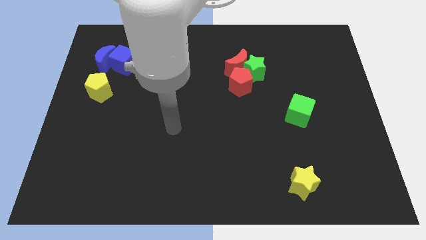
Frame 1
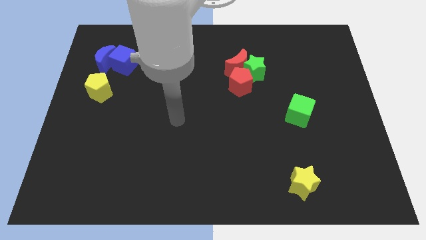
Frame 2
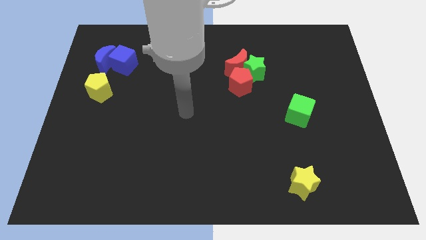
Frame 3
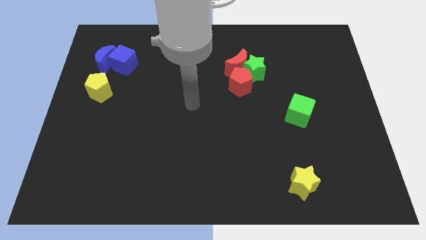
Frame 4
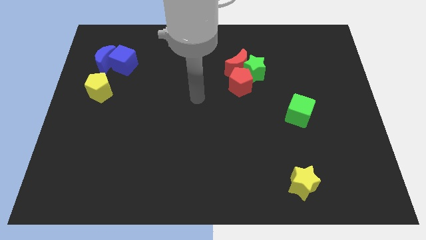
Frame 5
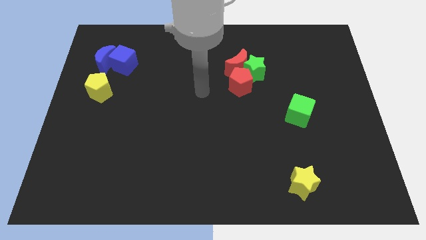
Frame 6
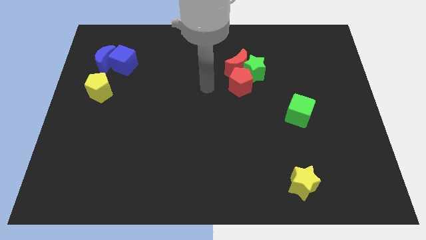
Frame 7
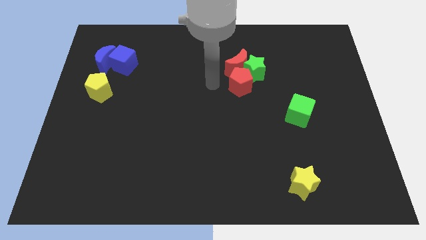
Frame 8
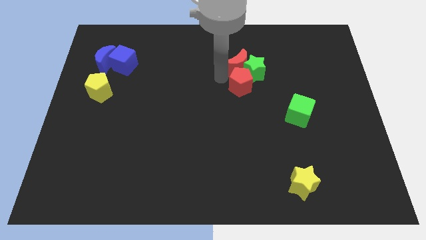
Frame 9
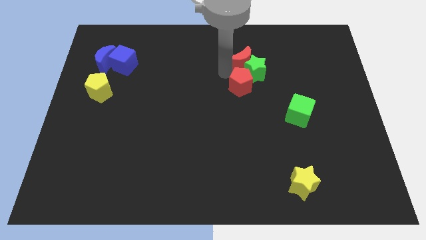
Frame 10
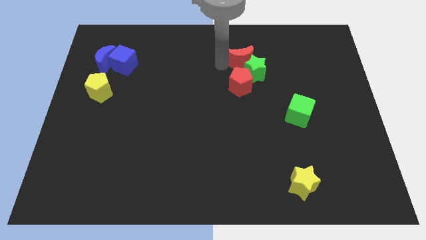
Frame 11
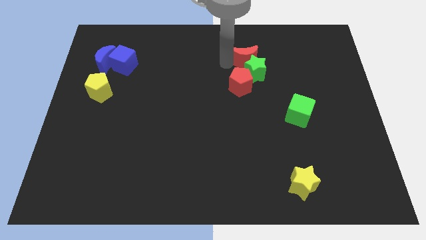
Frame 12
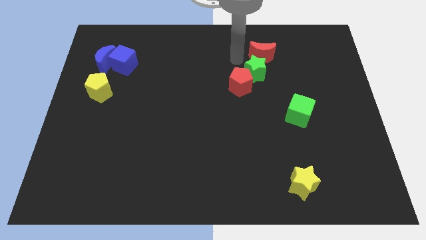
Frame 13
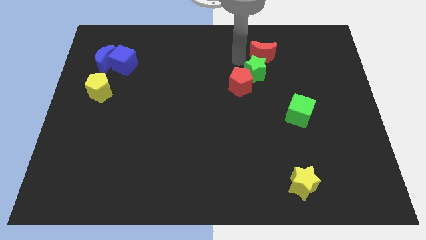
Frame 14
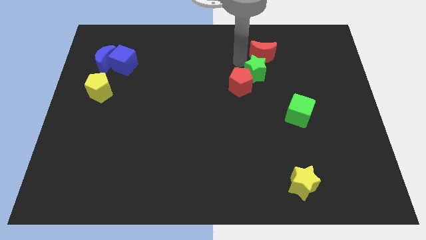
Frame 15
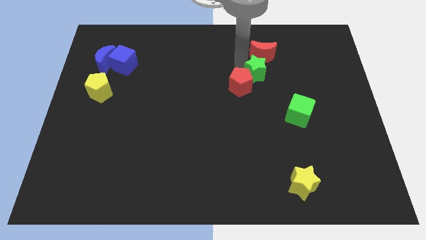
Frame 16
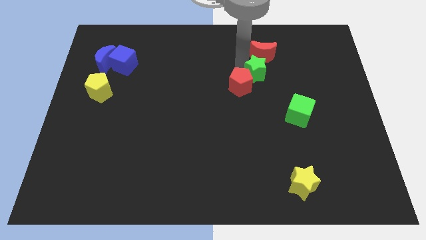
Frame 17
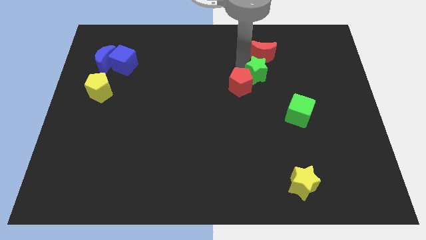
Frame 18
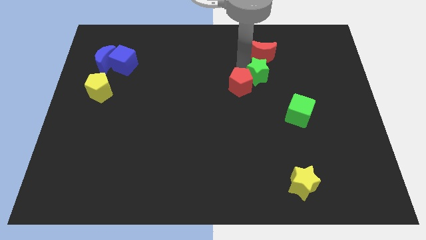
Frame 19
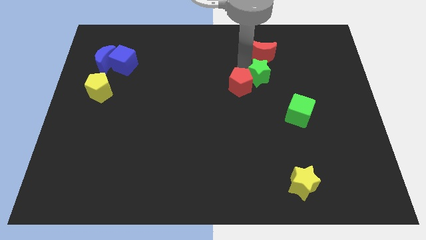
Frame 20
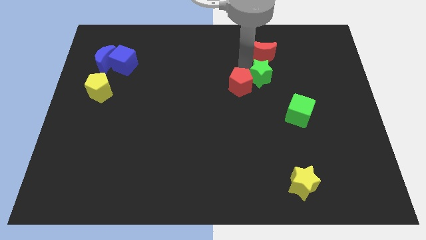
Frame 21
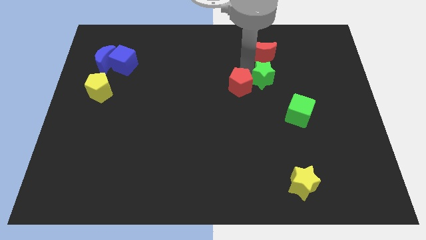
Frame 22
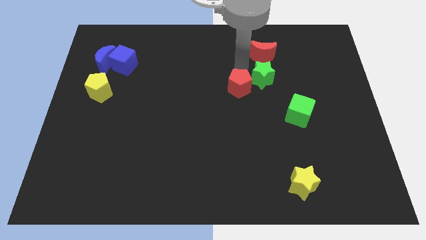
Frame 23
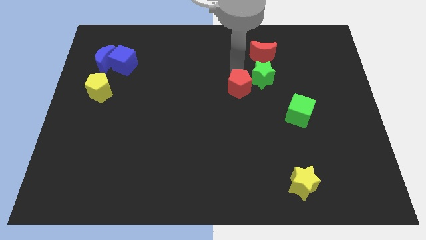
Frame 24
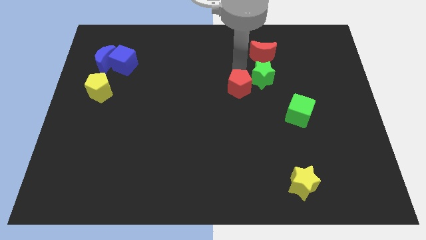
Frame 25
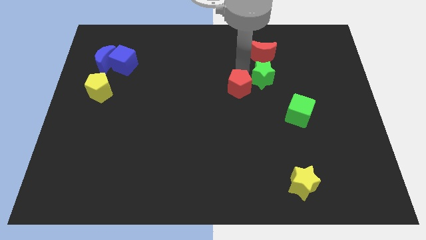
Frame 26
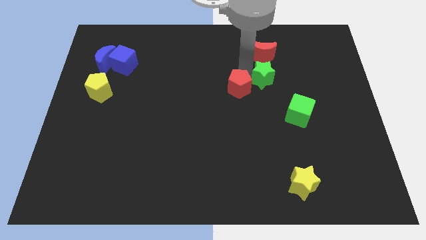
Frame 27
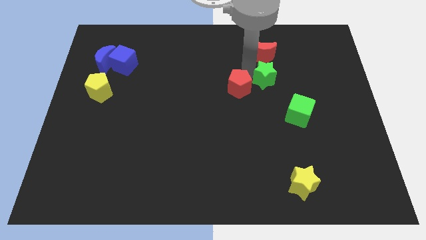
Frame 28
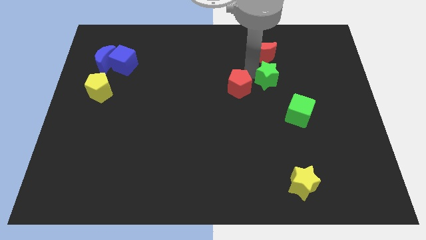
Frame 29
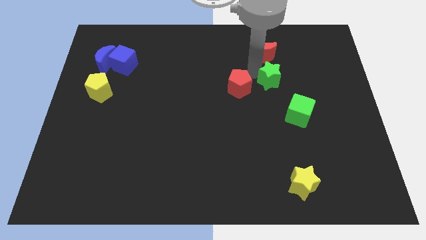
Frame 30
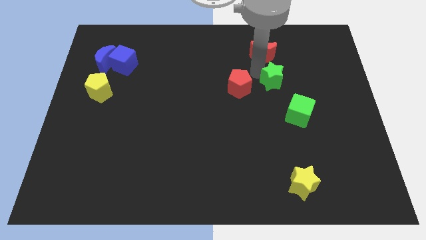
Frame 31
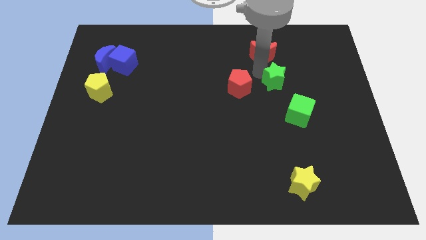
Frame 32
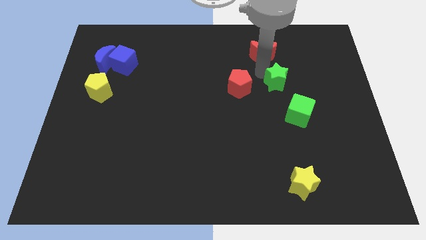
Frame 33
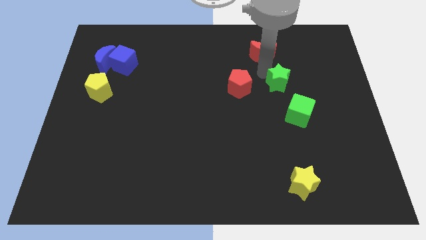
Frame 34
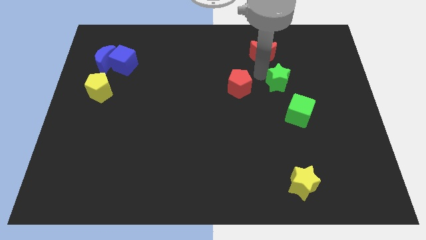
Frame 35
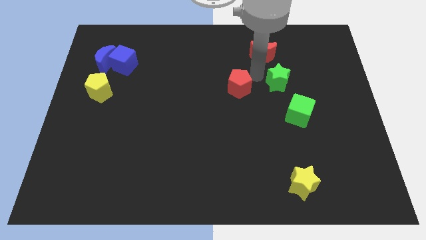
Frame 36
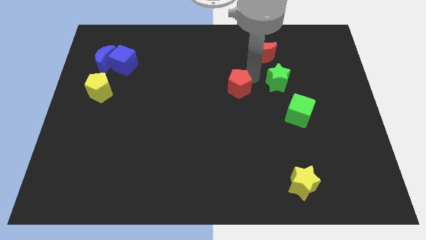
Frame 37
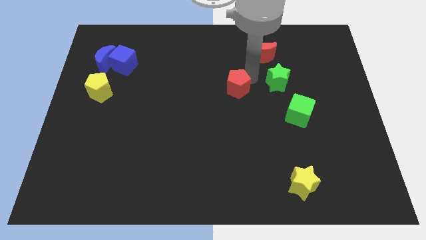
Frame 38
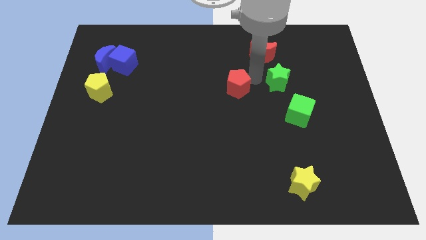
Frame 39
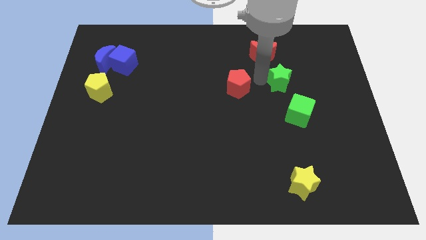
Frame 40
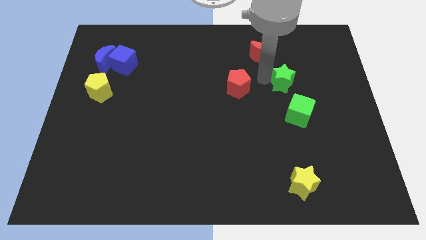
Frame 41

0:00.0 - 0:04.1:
slide the green star downwards and to the right a little

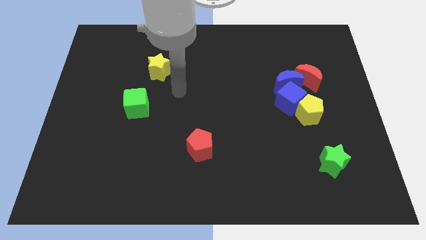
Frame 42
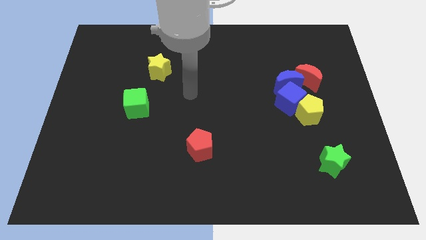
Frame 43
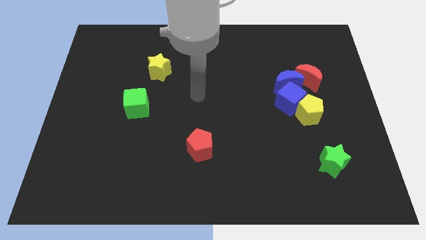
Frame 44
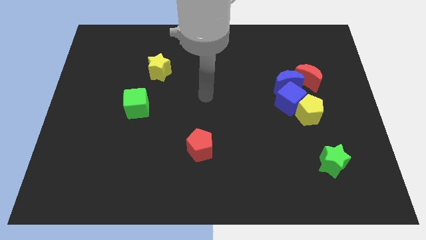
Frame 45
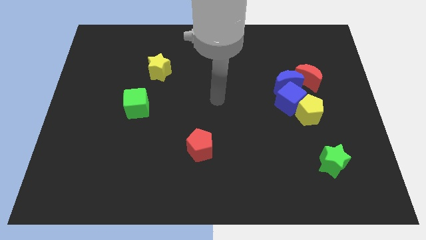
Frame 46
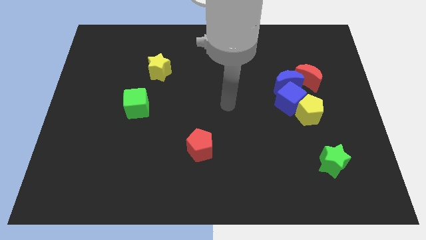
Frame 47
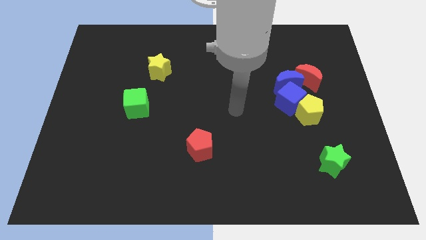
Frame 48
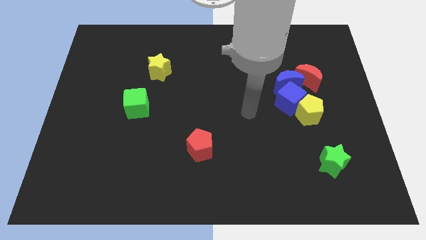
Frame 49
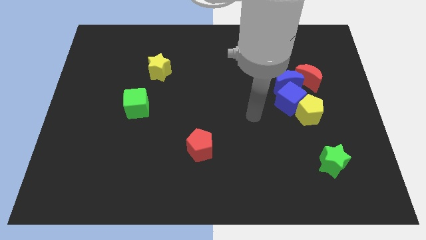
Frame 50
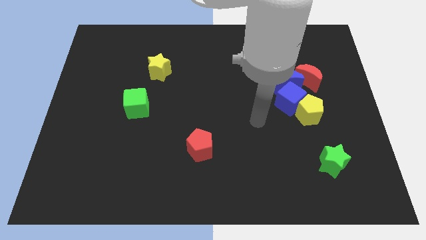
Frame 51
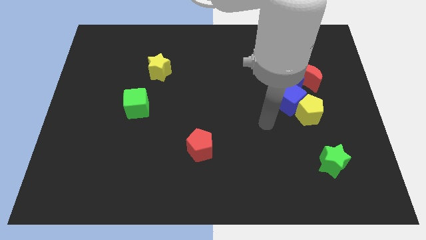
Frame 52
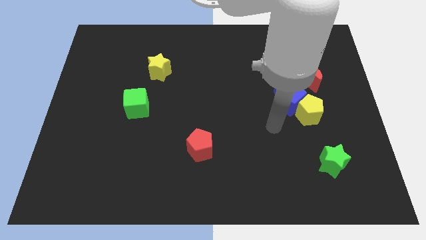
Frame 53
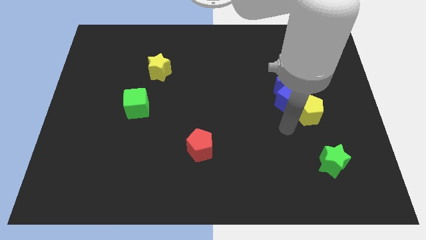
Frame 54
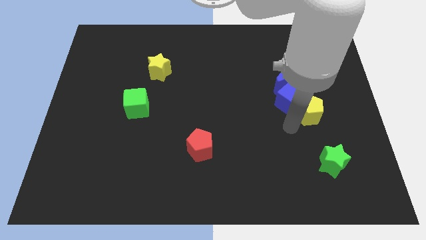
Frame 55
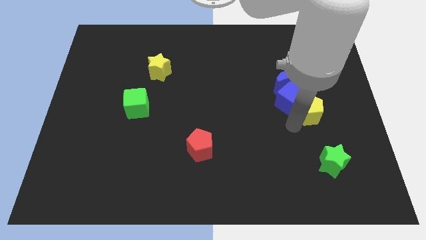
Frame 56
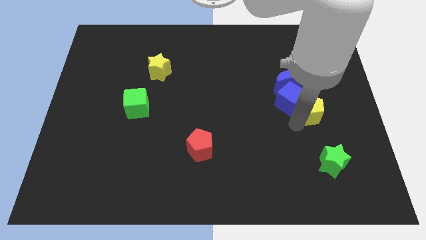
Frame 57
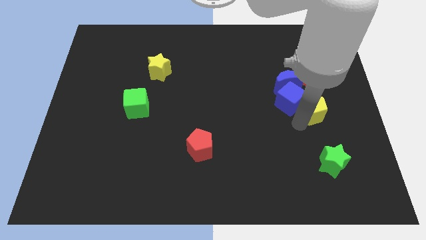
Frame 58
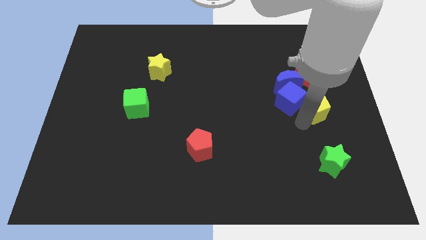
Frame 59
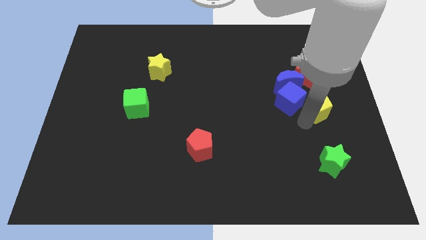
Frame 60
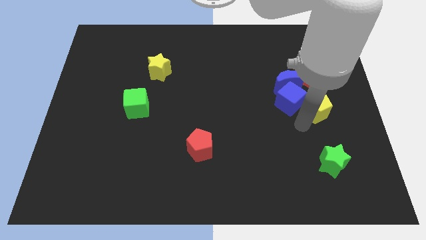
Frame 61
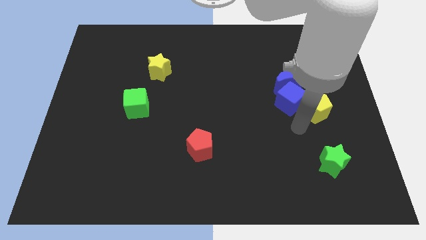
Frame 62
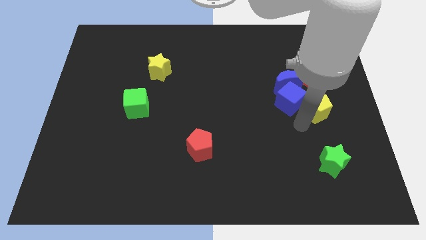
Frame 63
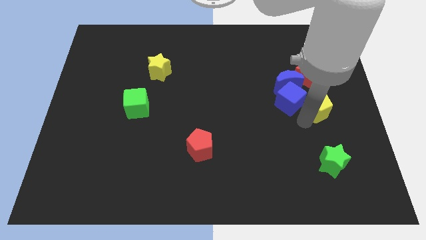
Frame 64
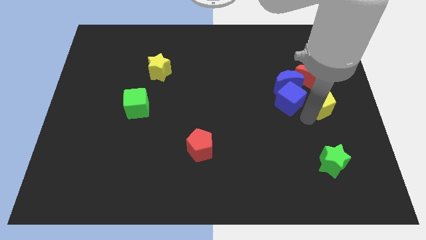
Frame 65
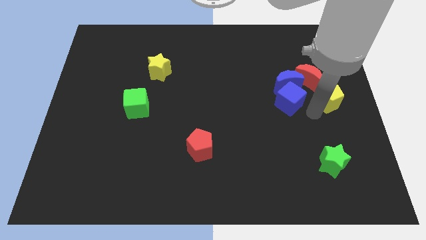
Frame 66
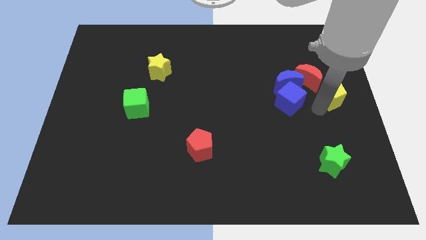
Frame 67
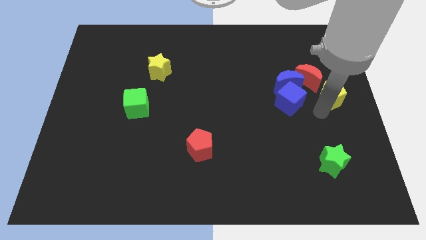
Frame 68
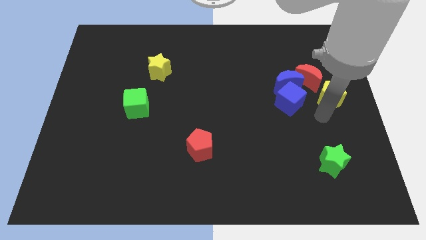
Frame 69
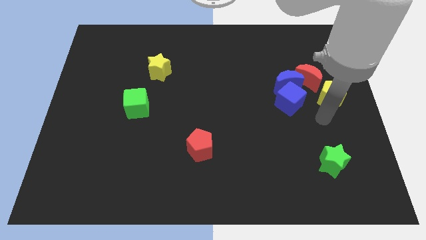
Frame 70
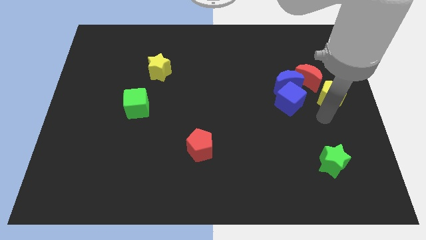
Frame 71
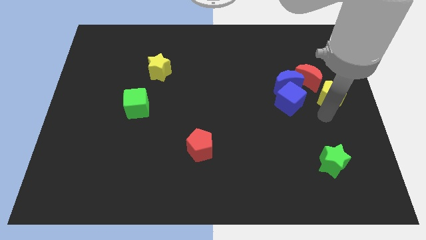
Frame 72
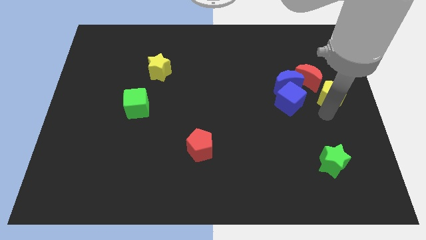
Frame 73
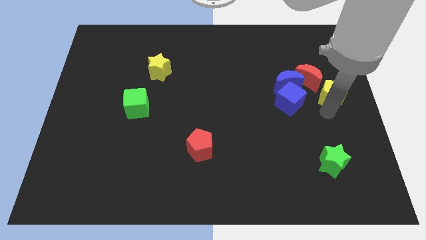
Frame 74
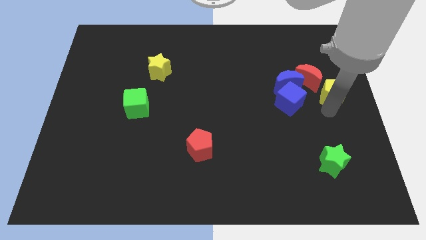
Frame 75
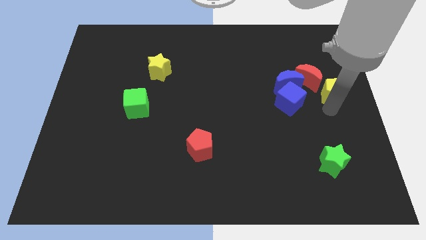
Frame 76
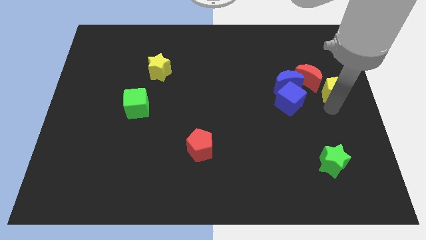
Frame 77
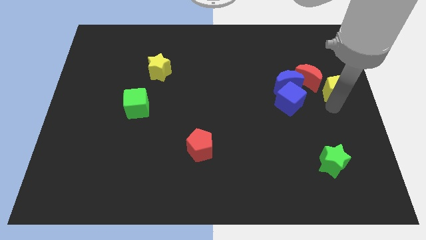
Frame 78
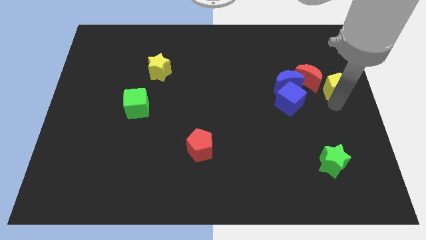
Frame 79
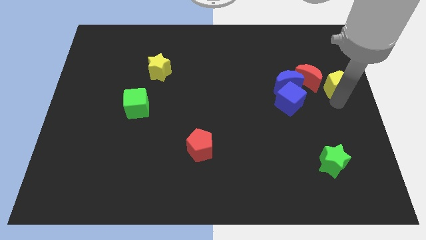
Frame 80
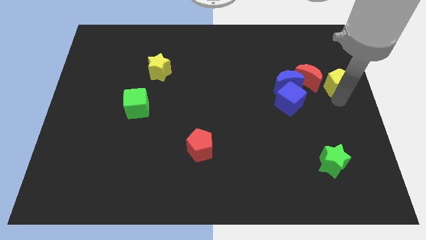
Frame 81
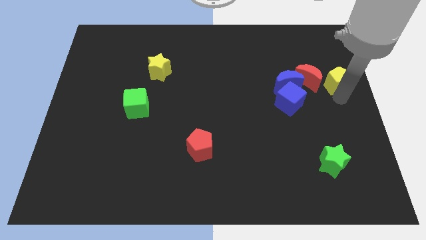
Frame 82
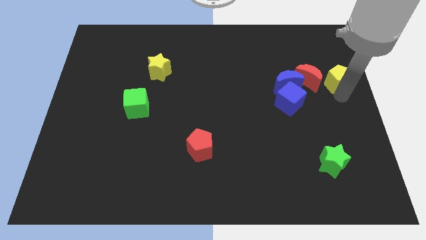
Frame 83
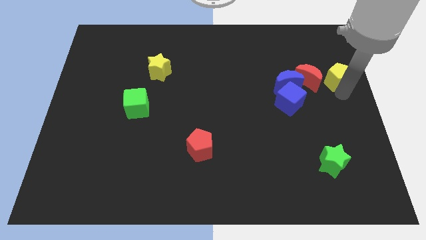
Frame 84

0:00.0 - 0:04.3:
slide the yellow pentagon up a bit
